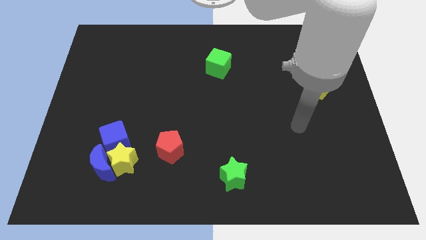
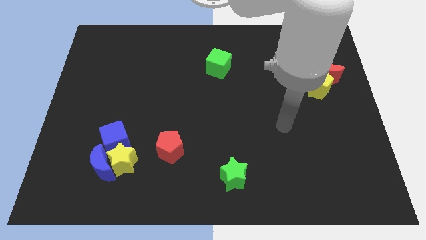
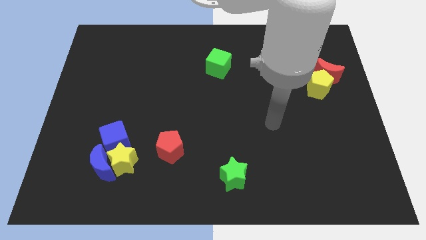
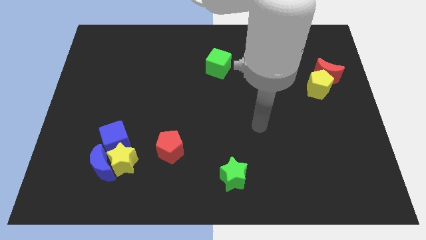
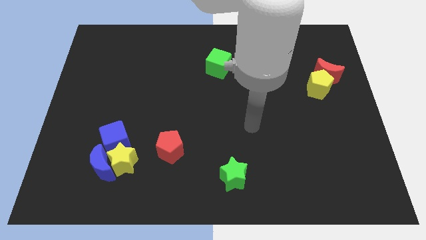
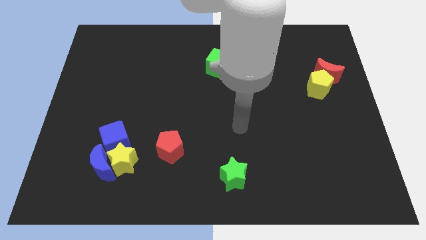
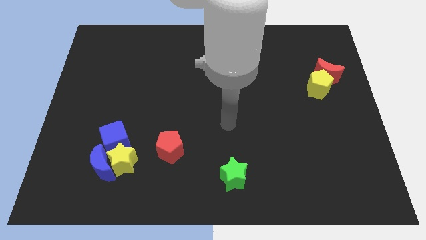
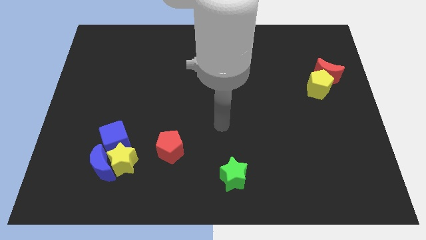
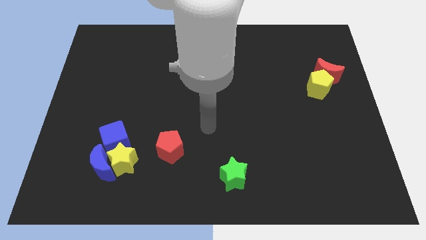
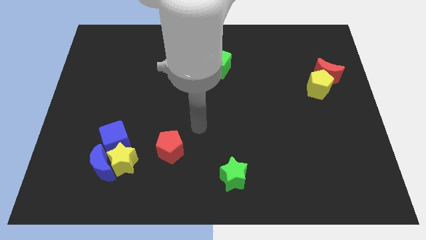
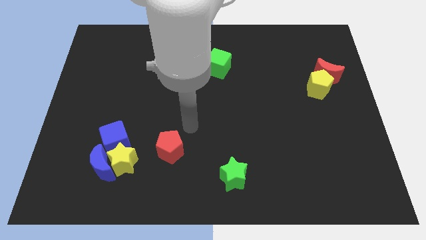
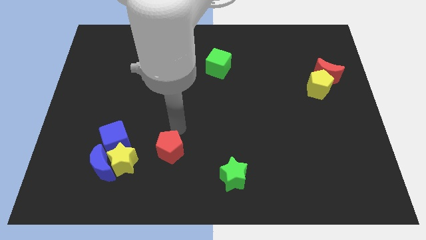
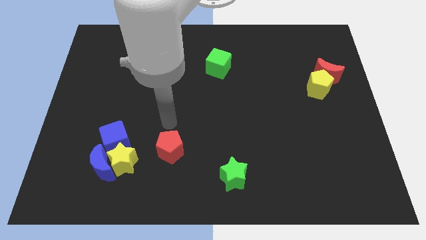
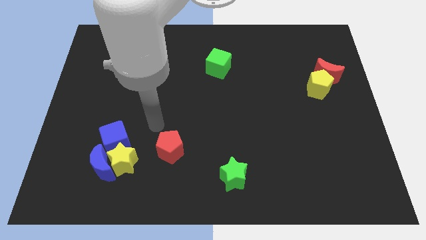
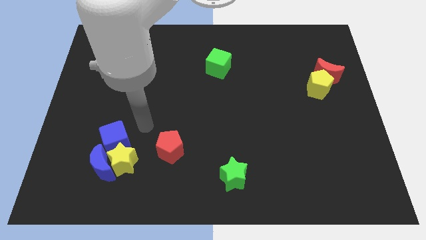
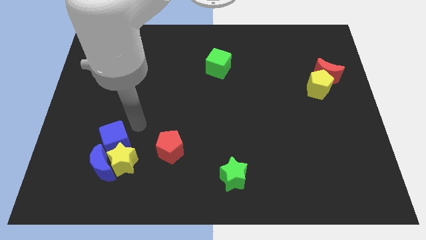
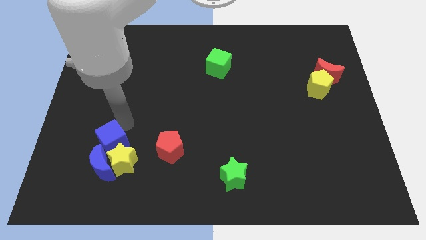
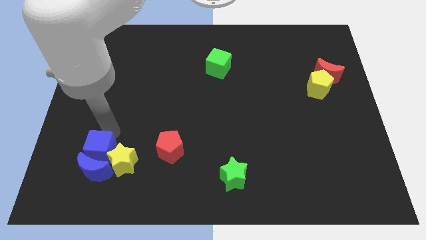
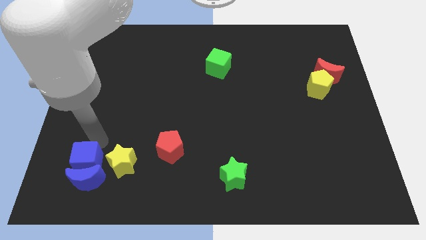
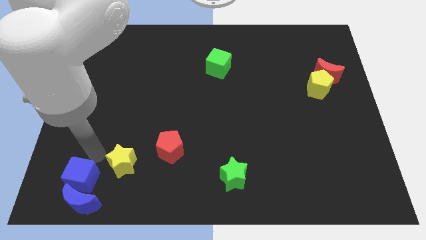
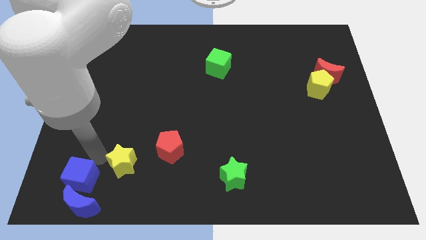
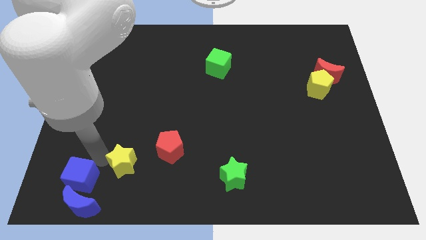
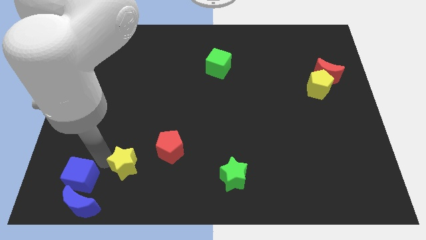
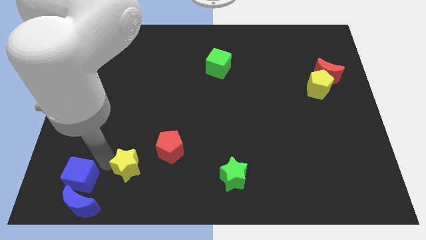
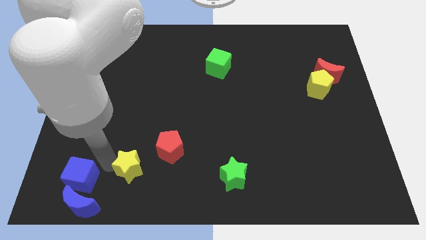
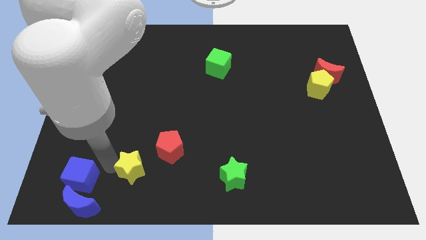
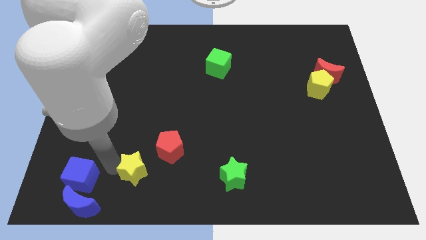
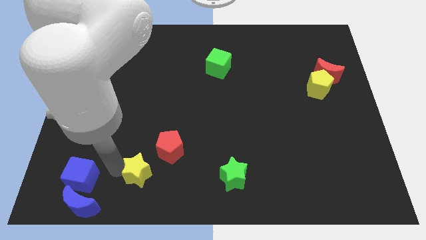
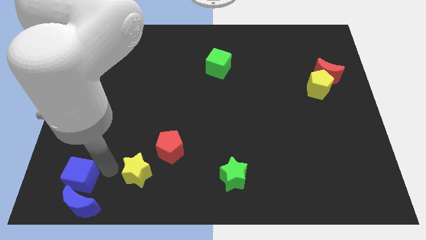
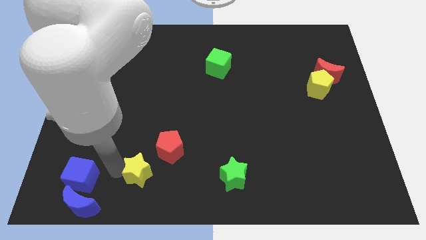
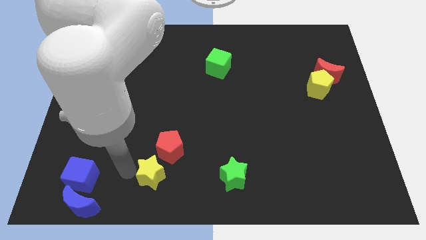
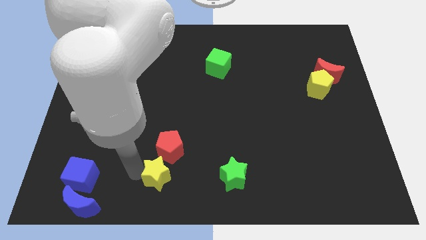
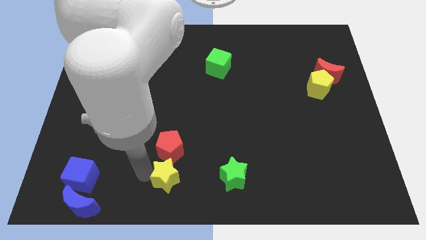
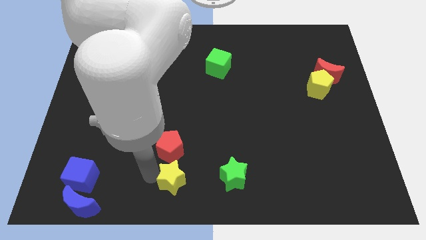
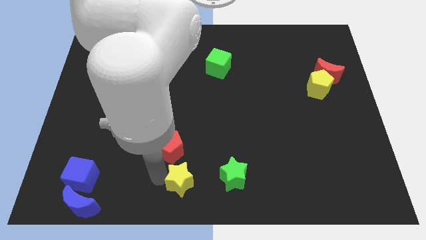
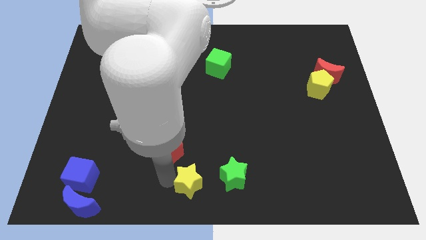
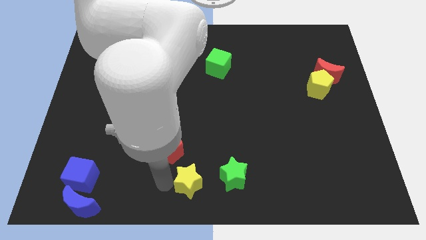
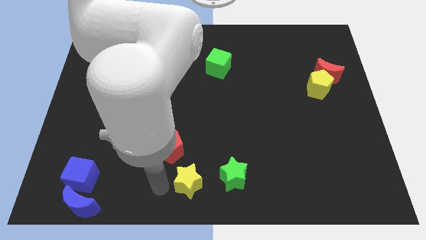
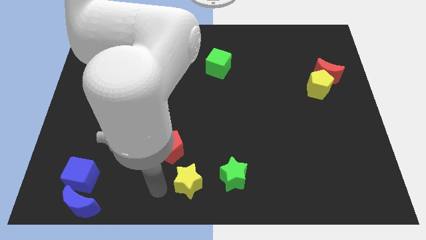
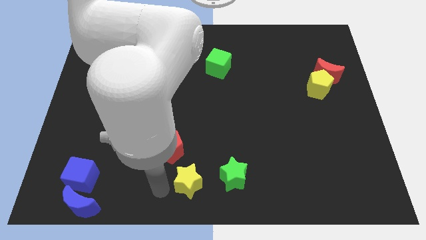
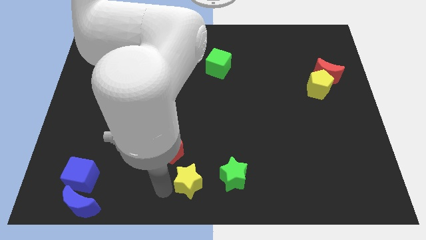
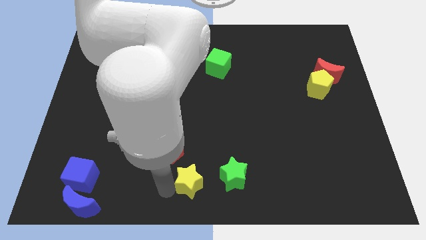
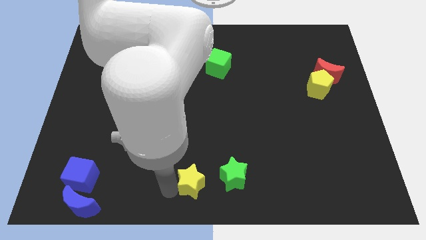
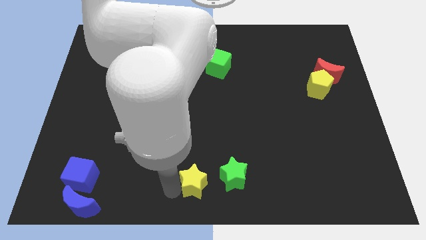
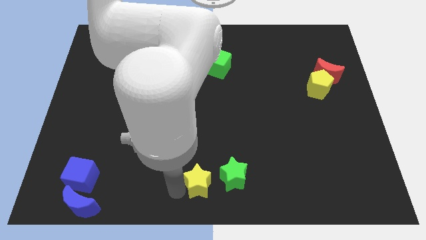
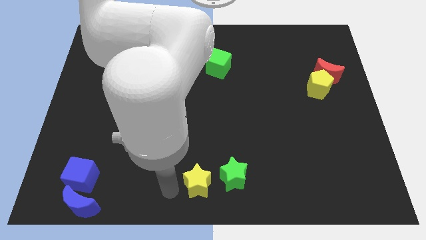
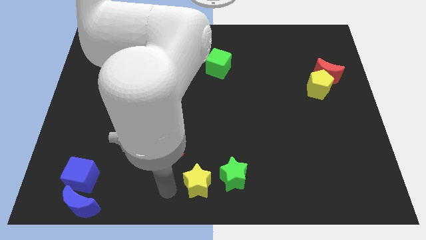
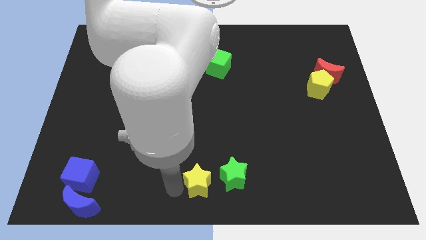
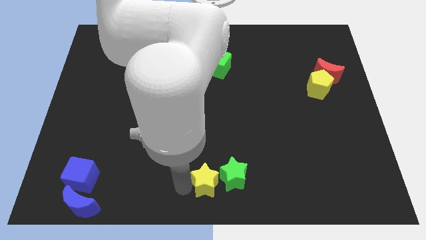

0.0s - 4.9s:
slide the yellow star close to the green star

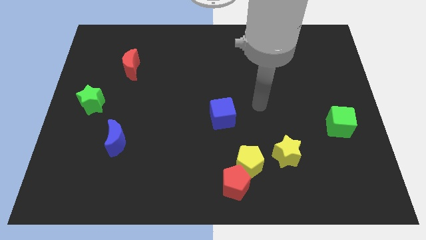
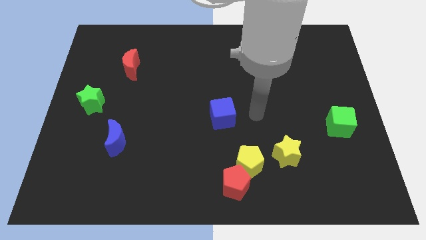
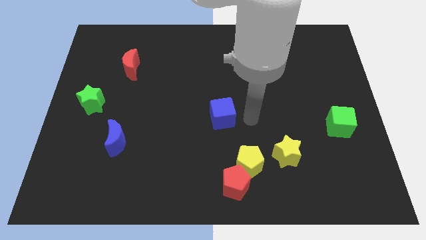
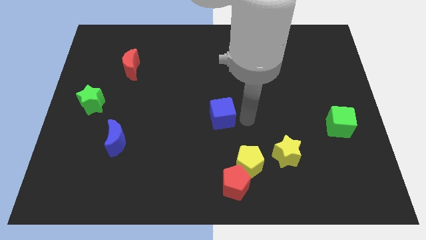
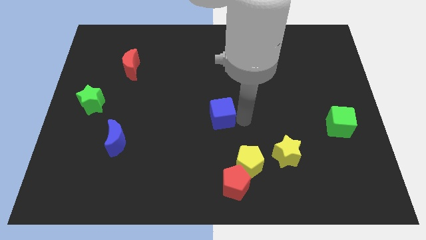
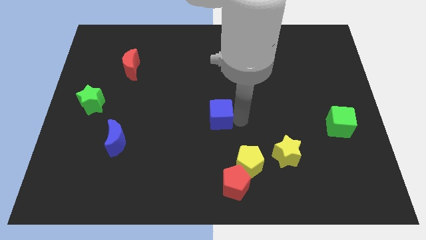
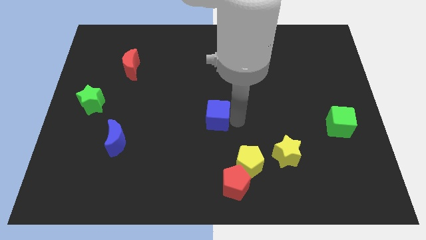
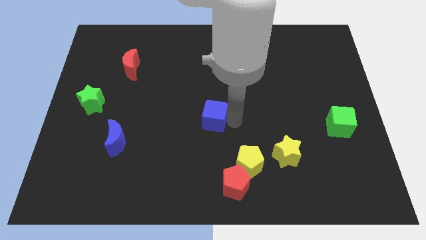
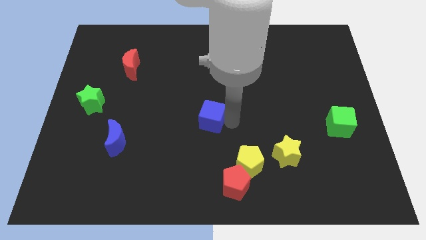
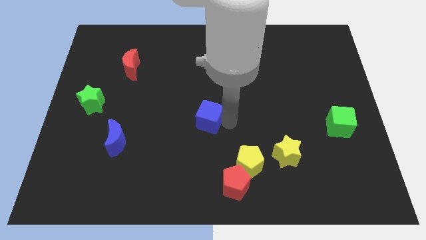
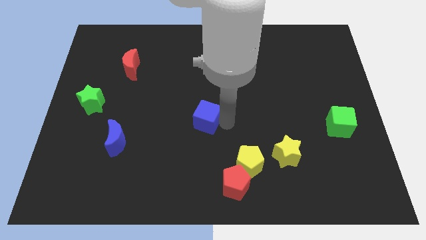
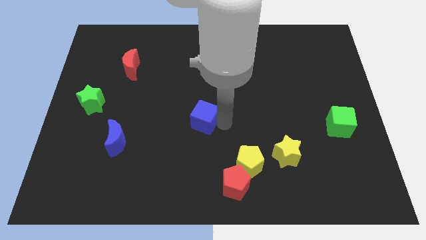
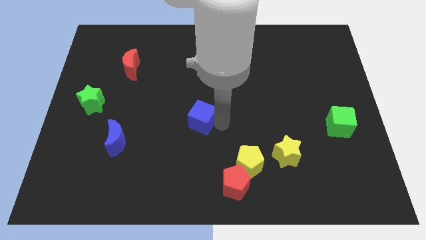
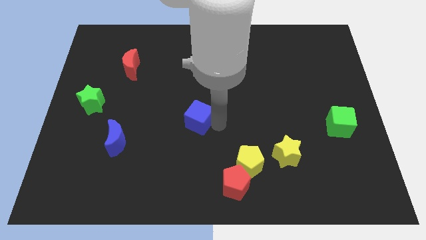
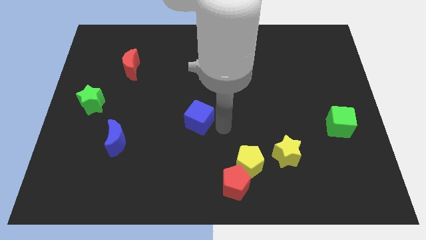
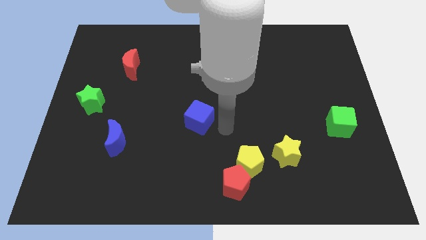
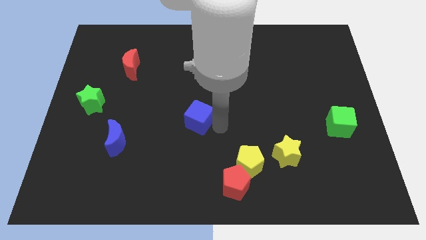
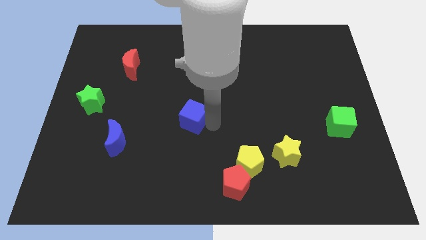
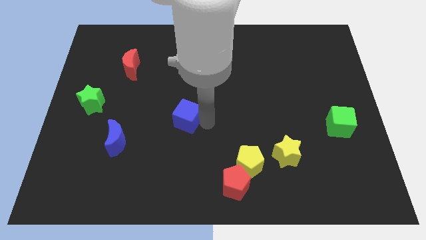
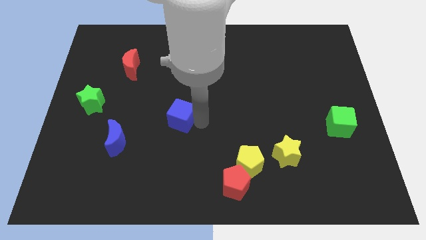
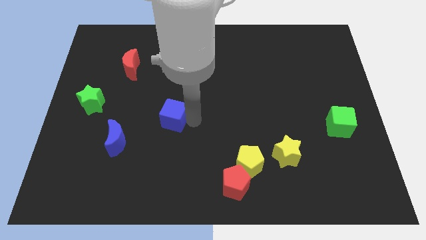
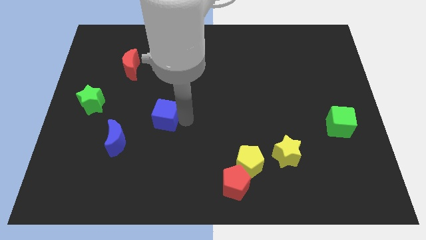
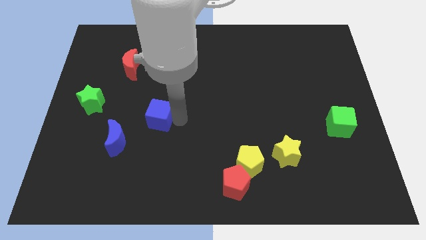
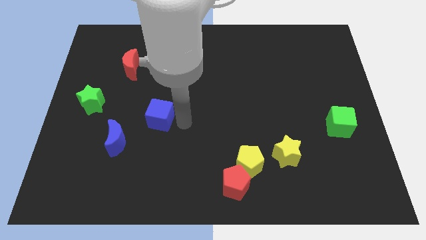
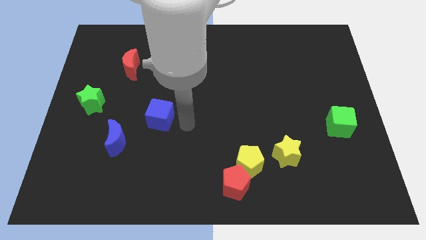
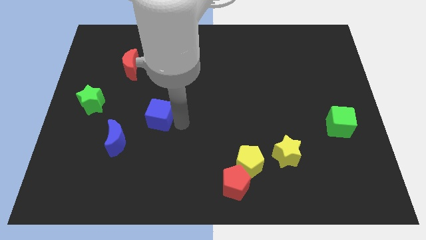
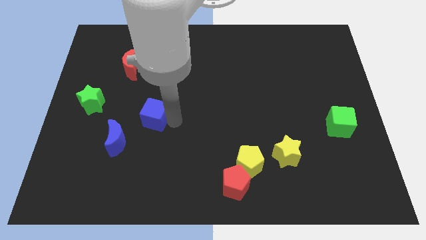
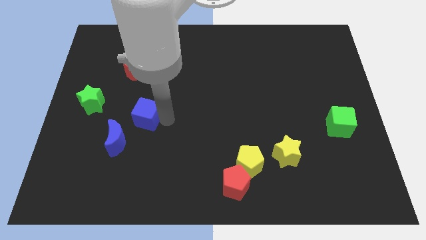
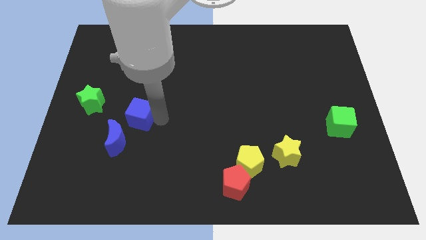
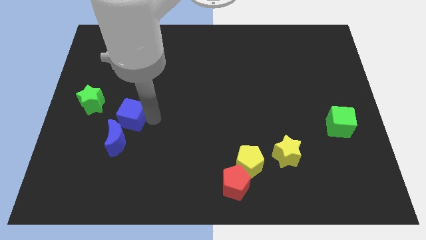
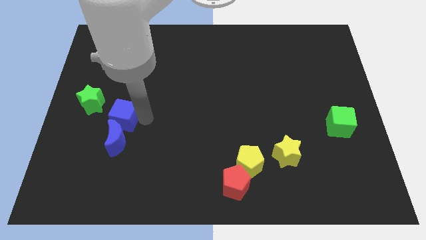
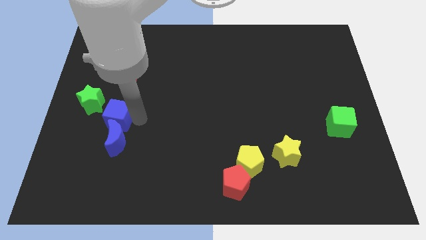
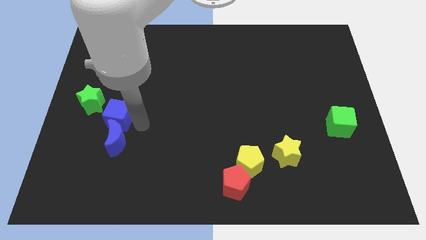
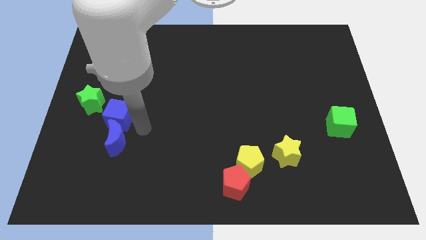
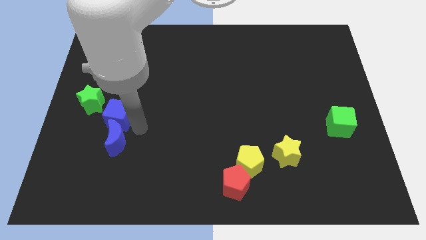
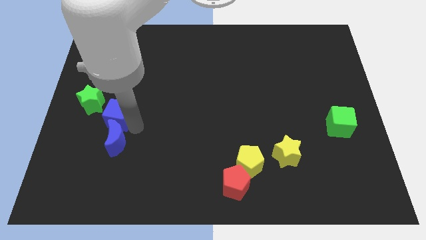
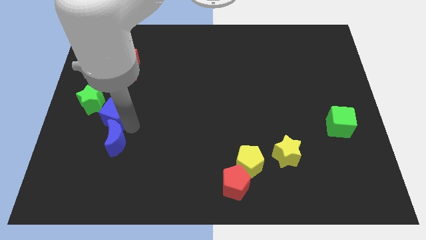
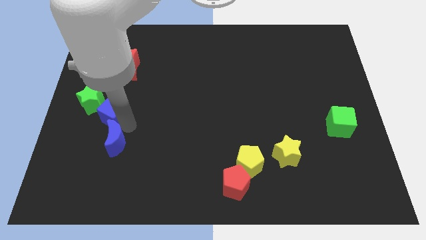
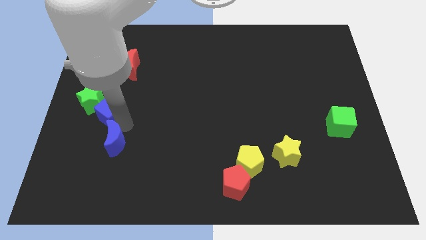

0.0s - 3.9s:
move the blue cube towards the green star
